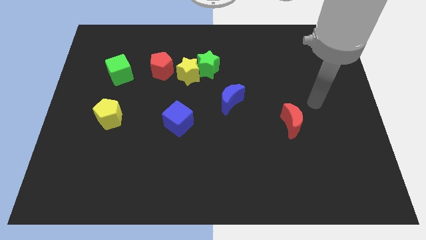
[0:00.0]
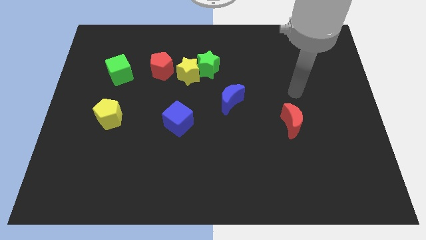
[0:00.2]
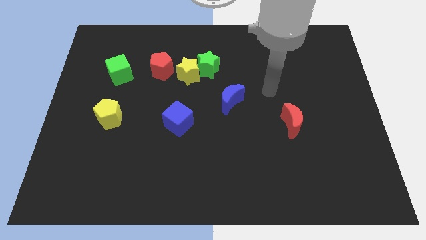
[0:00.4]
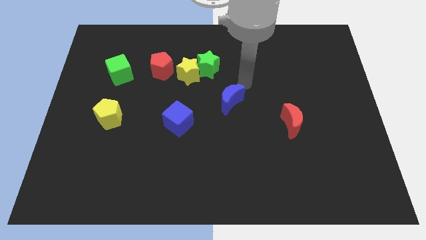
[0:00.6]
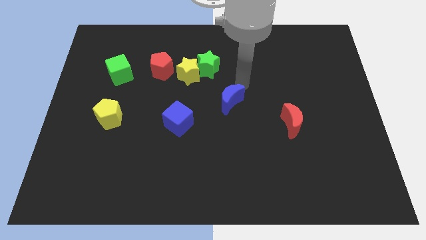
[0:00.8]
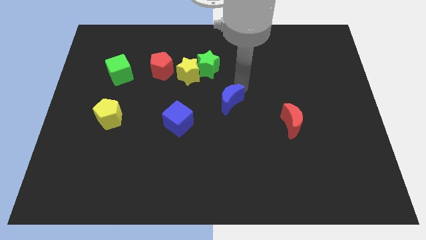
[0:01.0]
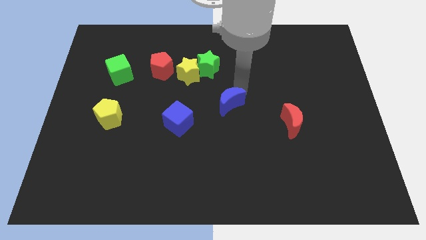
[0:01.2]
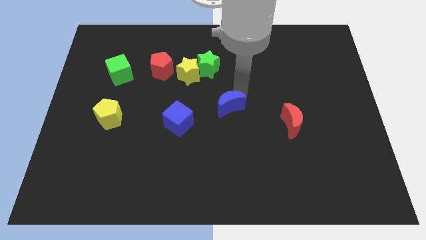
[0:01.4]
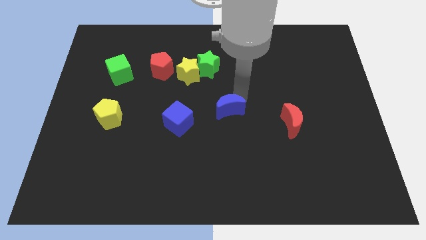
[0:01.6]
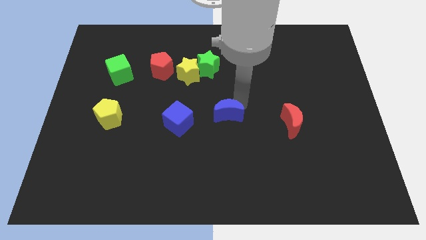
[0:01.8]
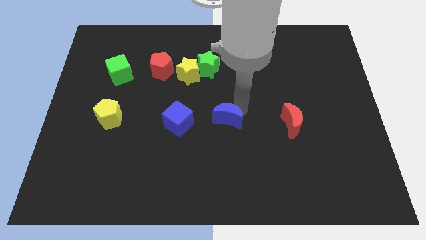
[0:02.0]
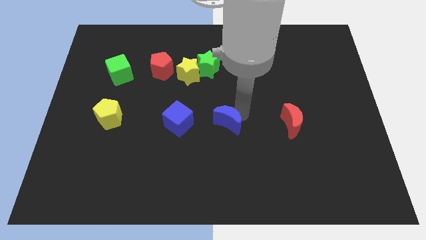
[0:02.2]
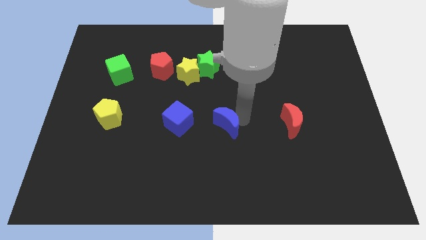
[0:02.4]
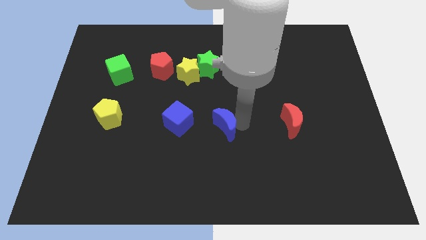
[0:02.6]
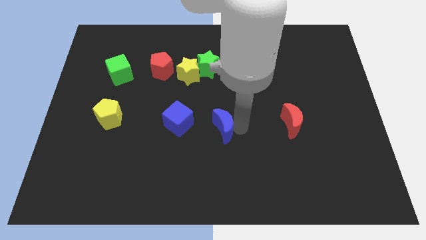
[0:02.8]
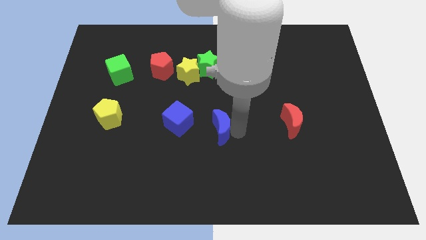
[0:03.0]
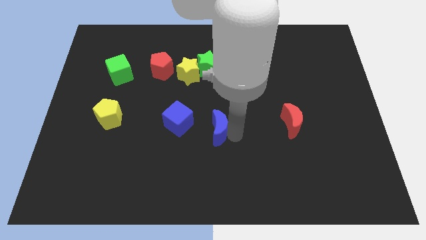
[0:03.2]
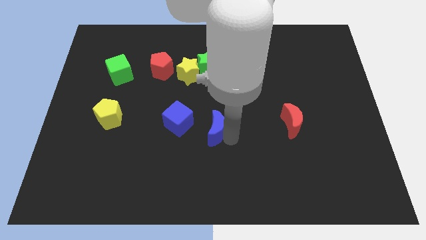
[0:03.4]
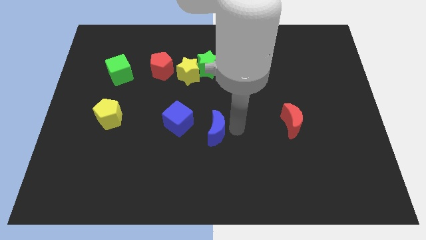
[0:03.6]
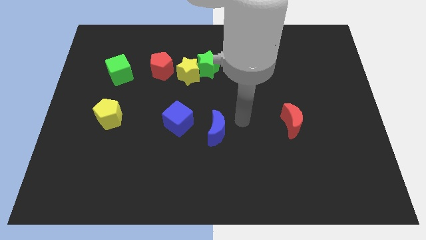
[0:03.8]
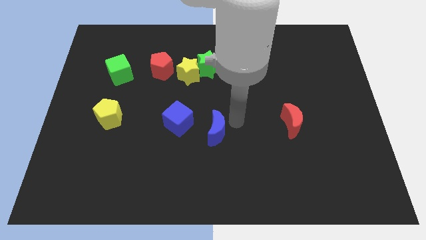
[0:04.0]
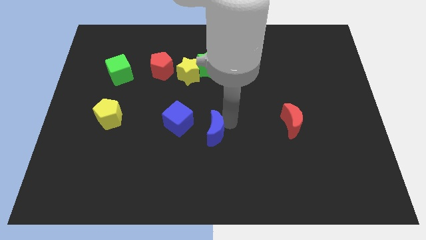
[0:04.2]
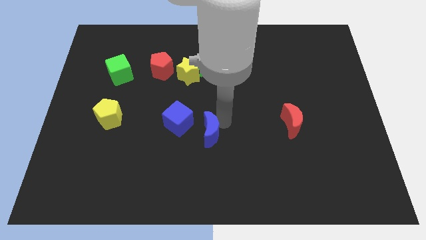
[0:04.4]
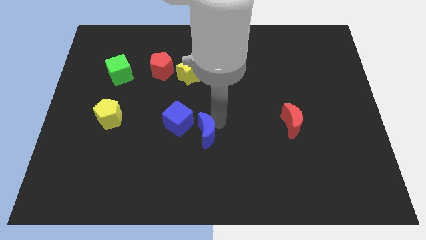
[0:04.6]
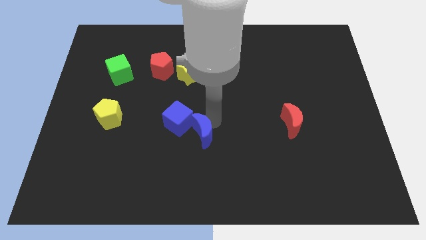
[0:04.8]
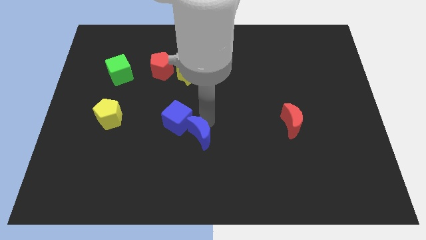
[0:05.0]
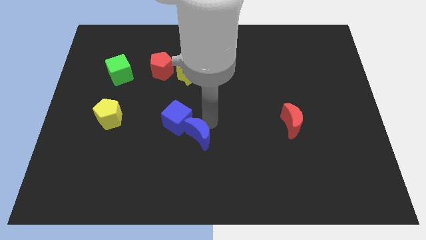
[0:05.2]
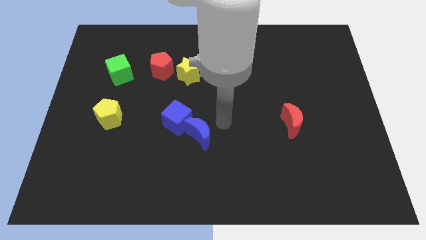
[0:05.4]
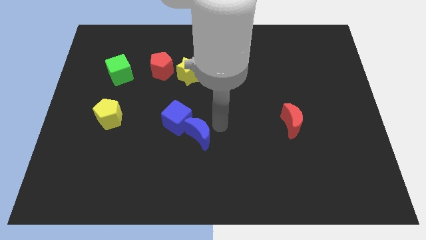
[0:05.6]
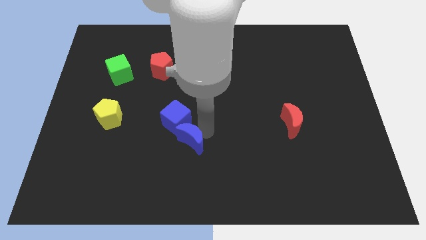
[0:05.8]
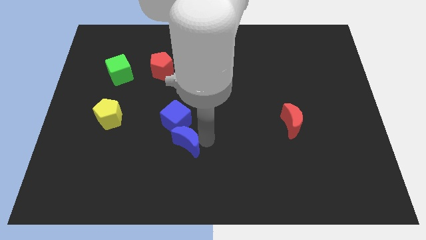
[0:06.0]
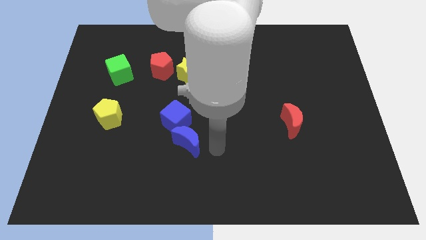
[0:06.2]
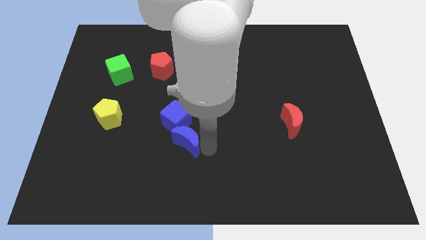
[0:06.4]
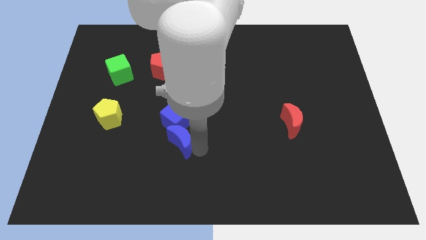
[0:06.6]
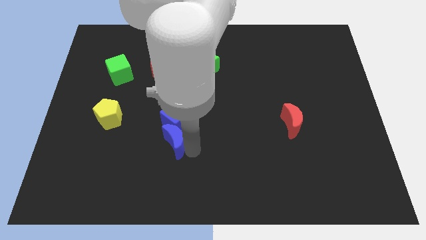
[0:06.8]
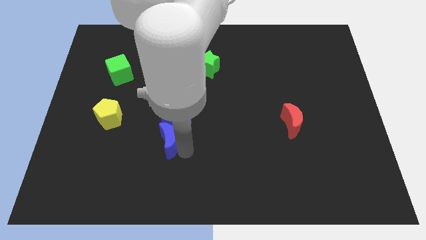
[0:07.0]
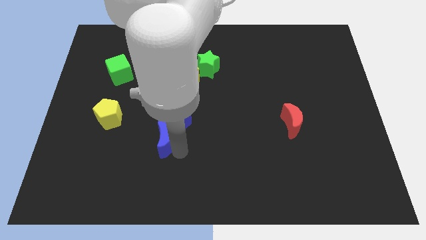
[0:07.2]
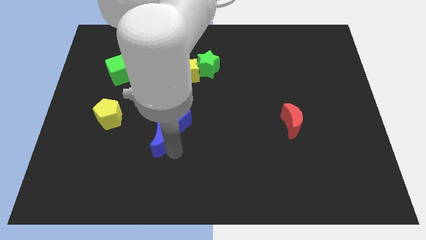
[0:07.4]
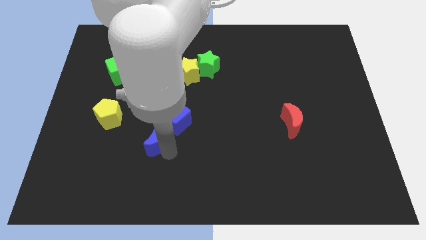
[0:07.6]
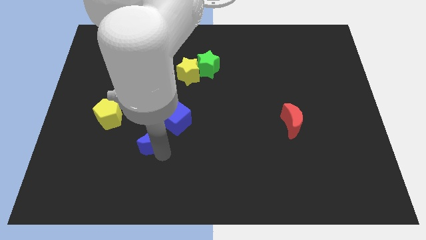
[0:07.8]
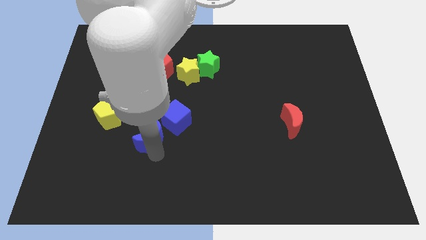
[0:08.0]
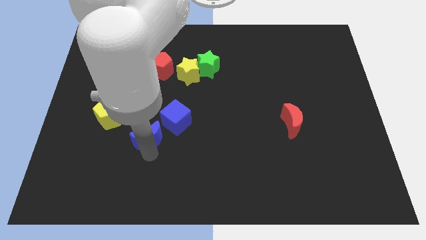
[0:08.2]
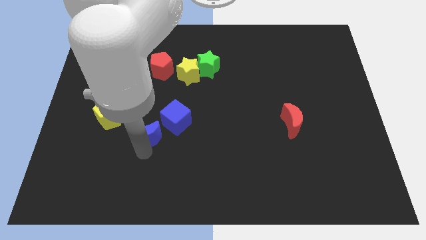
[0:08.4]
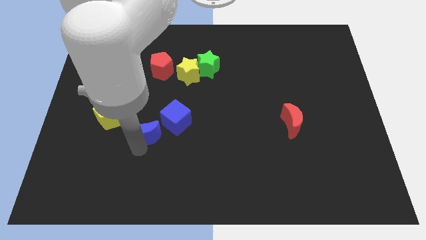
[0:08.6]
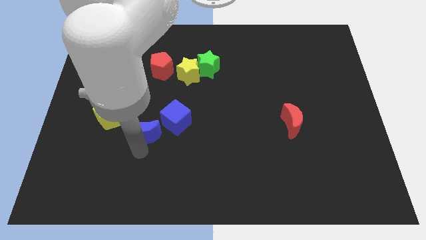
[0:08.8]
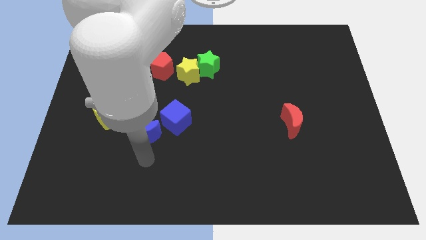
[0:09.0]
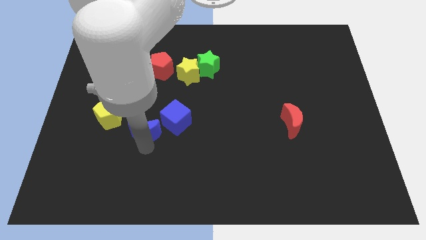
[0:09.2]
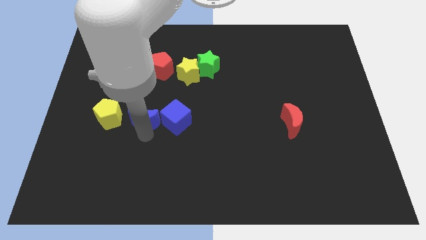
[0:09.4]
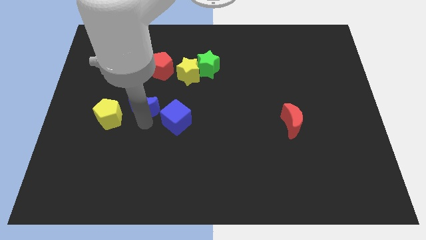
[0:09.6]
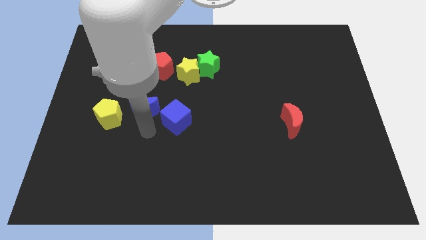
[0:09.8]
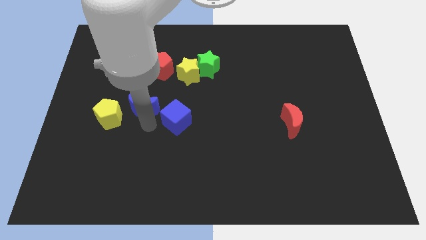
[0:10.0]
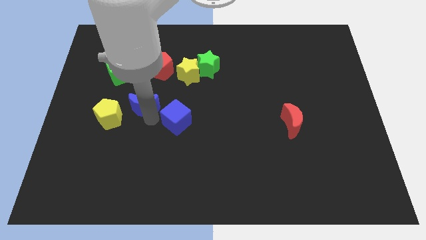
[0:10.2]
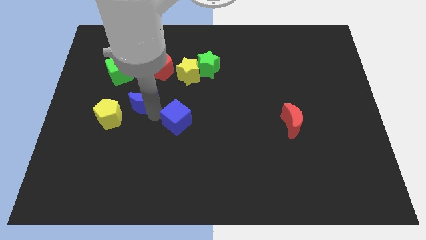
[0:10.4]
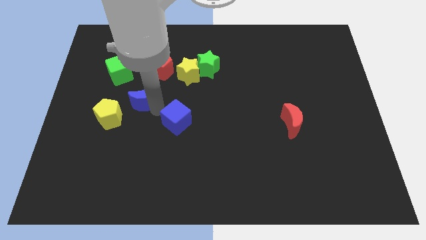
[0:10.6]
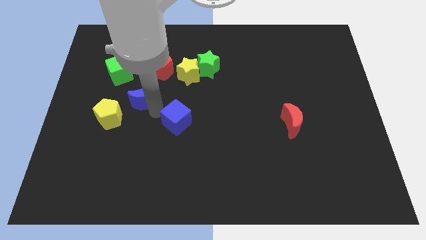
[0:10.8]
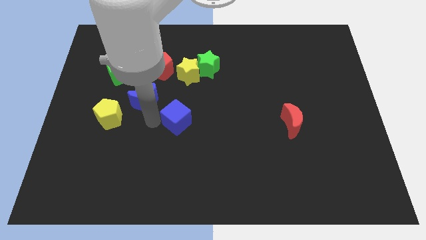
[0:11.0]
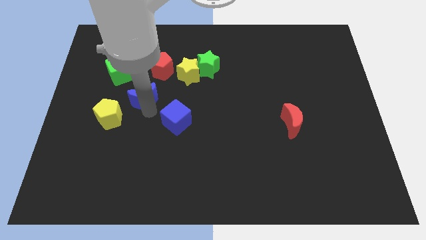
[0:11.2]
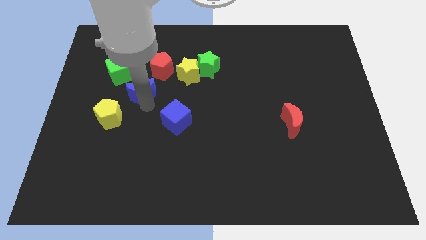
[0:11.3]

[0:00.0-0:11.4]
push the blue moon to the bottom left of the red pentagon

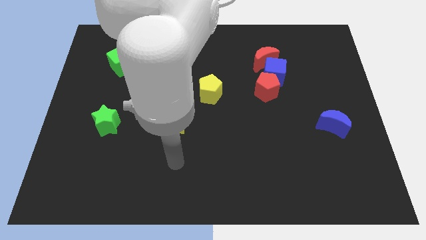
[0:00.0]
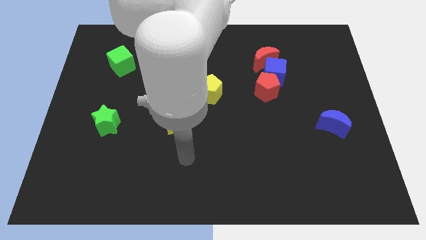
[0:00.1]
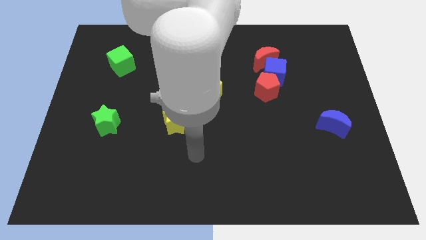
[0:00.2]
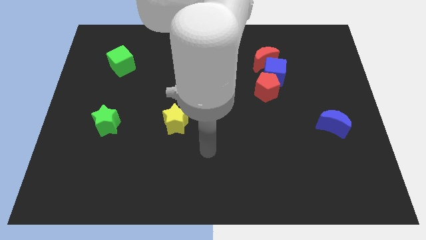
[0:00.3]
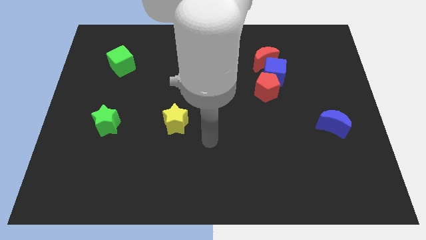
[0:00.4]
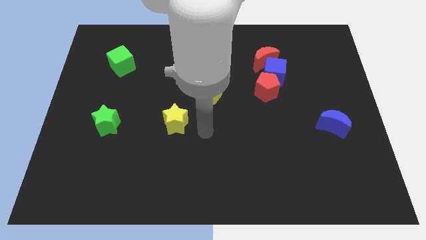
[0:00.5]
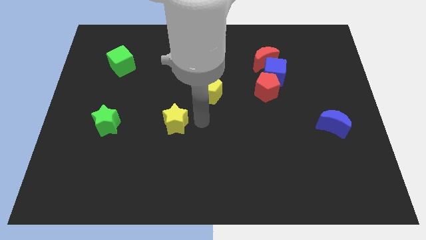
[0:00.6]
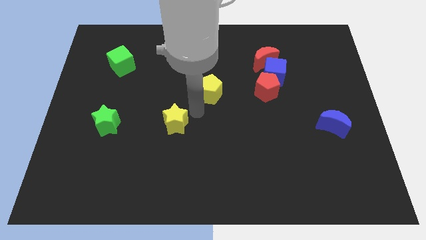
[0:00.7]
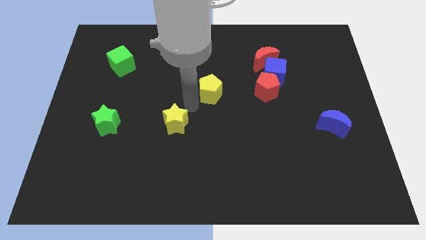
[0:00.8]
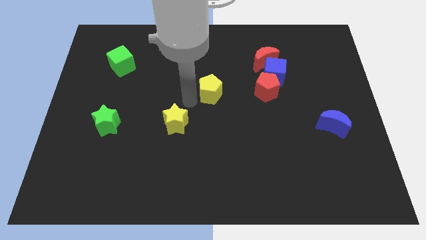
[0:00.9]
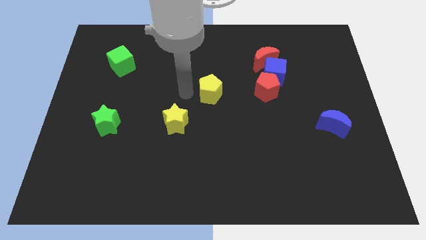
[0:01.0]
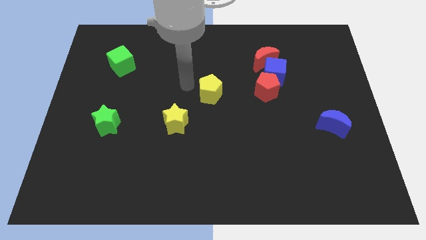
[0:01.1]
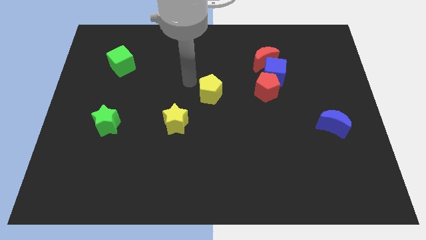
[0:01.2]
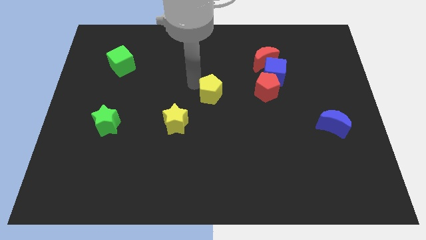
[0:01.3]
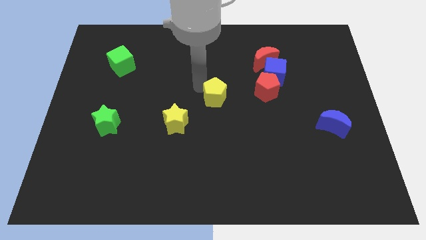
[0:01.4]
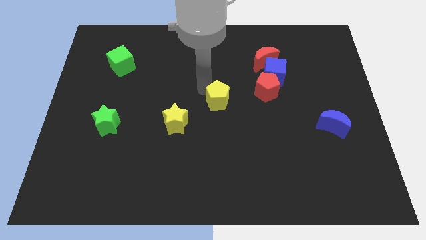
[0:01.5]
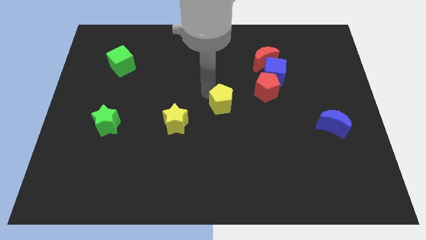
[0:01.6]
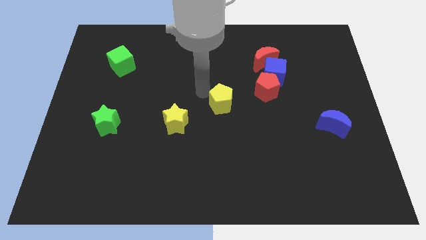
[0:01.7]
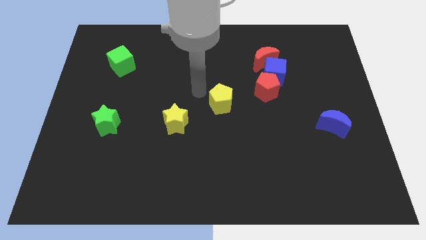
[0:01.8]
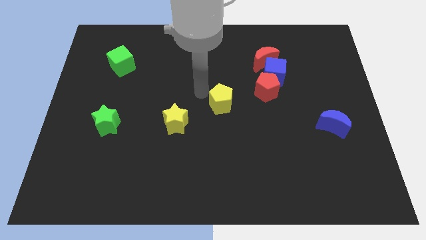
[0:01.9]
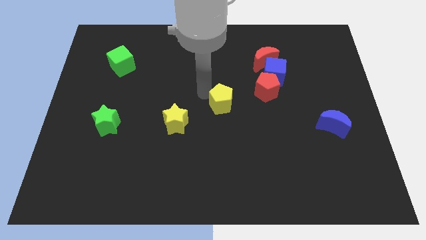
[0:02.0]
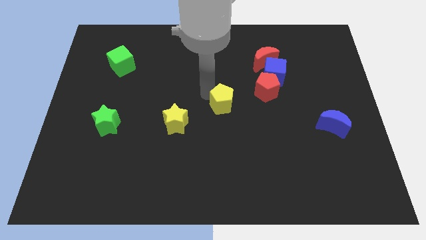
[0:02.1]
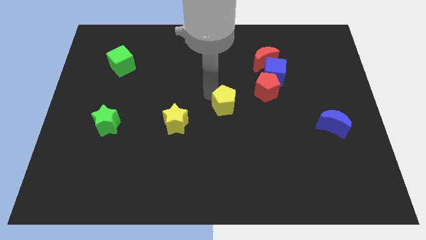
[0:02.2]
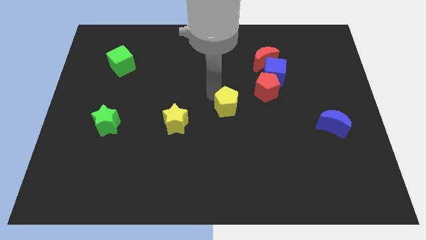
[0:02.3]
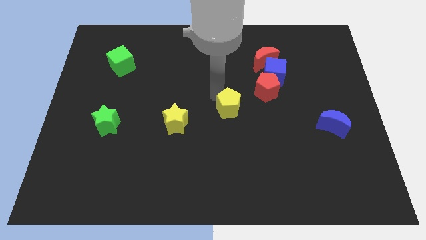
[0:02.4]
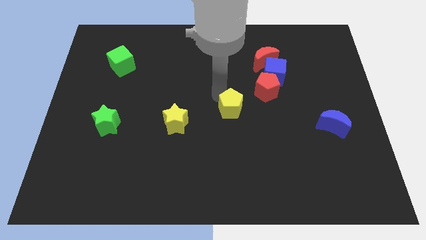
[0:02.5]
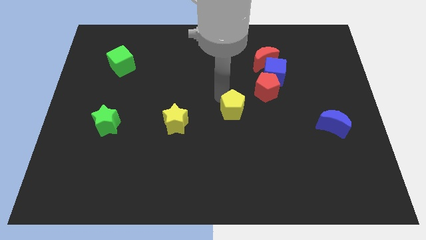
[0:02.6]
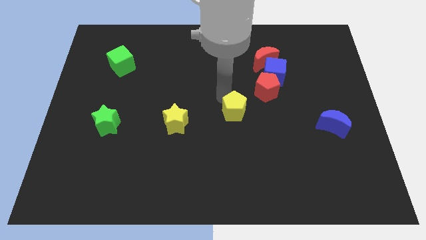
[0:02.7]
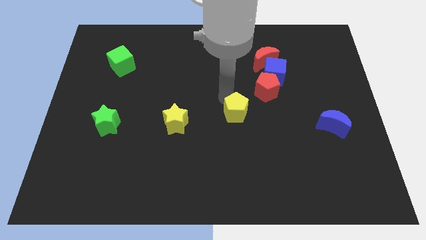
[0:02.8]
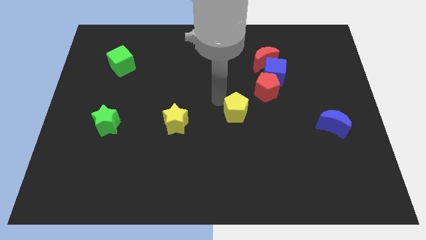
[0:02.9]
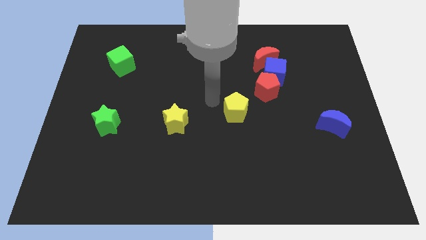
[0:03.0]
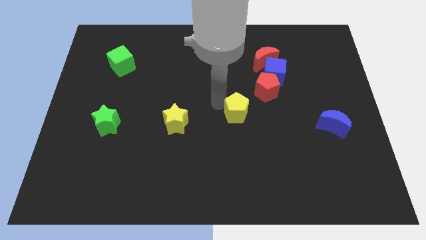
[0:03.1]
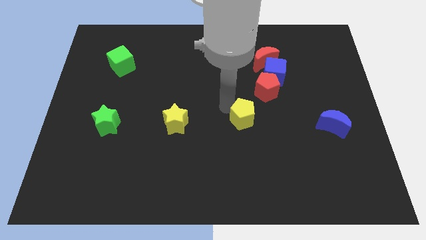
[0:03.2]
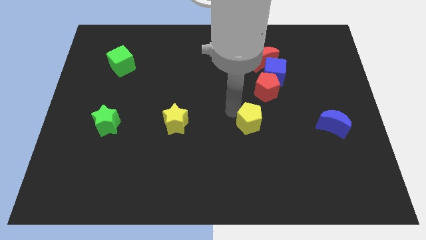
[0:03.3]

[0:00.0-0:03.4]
move the yellow pentagon to the bottom side of the red pentagon
